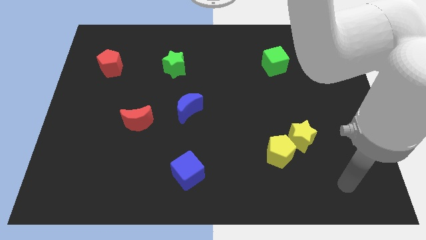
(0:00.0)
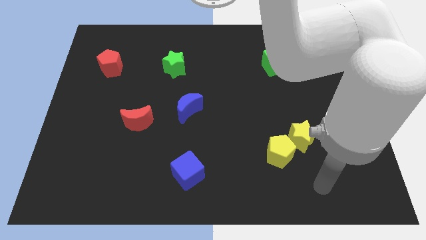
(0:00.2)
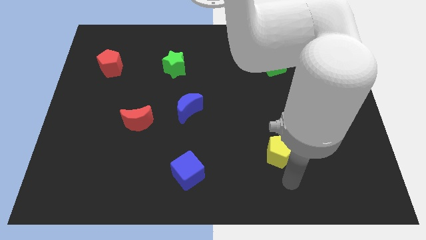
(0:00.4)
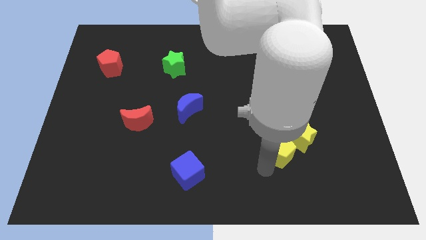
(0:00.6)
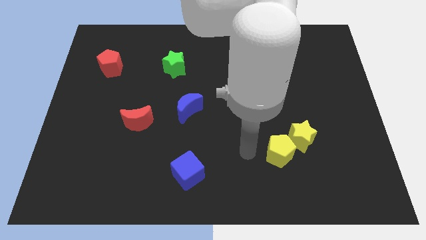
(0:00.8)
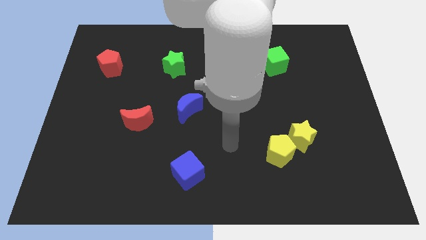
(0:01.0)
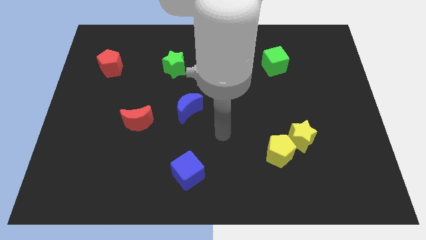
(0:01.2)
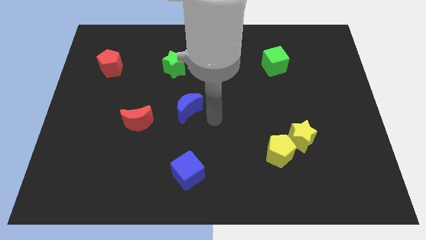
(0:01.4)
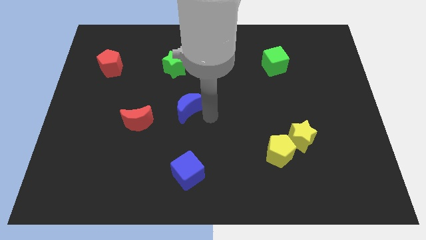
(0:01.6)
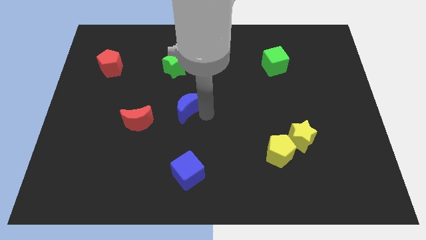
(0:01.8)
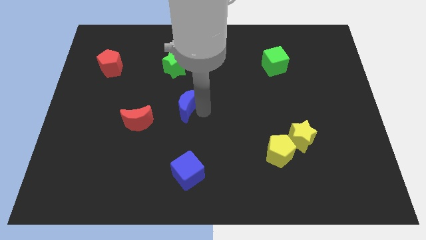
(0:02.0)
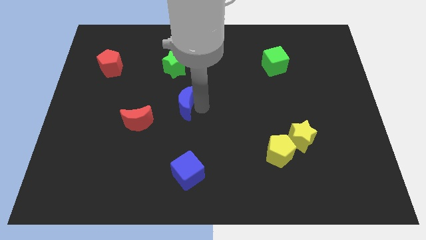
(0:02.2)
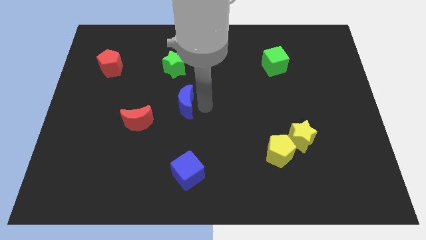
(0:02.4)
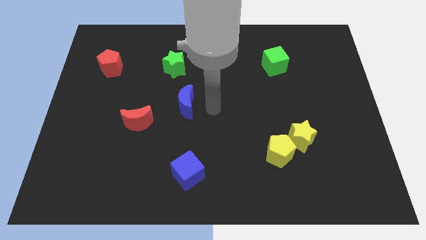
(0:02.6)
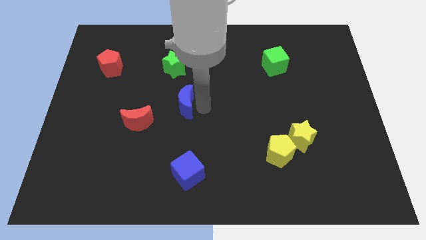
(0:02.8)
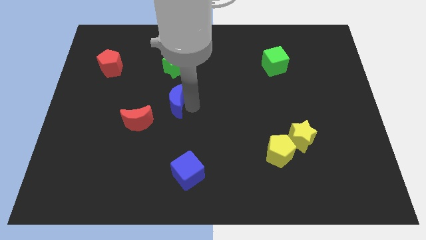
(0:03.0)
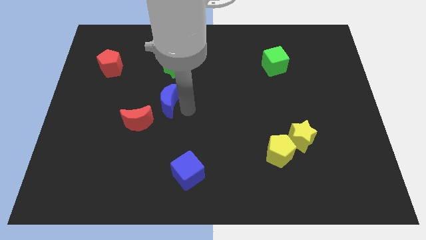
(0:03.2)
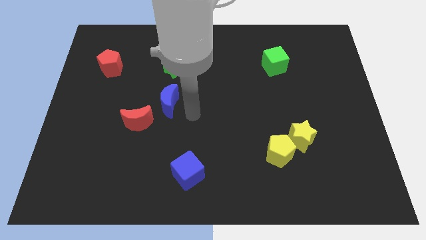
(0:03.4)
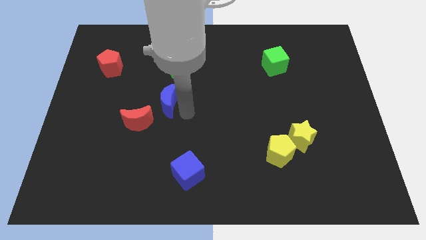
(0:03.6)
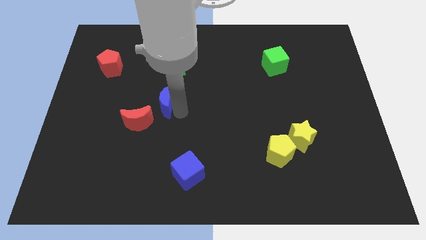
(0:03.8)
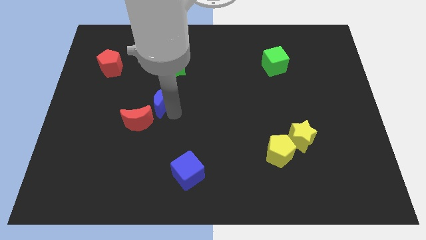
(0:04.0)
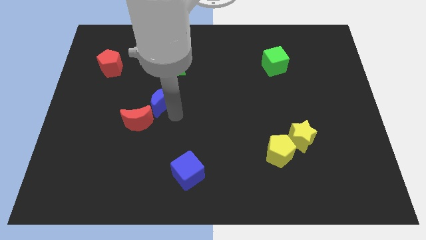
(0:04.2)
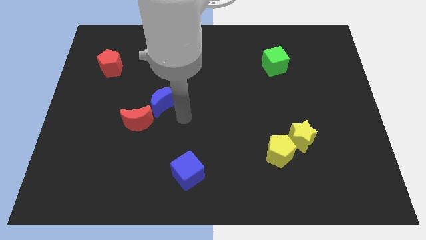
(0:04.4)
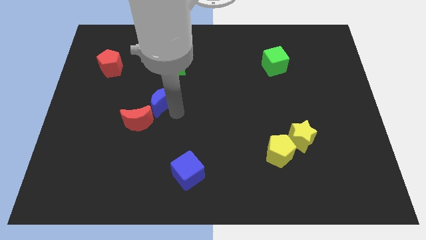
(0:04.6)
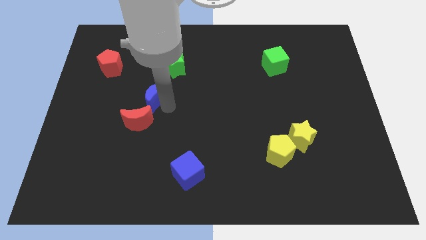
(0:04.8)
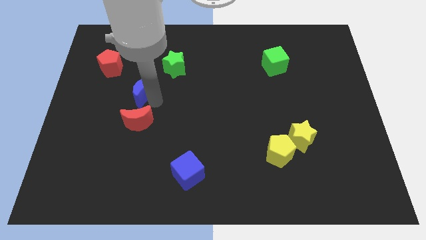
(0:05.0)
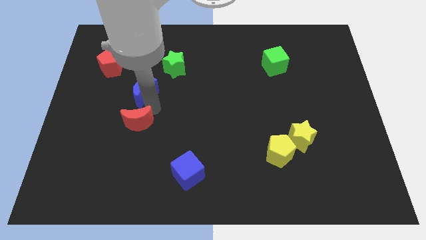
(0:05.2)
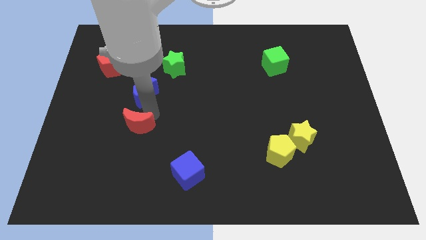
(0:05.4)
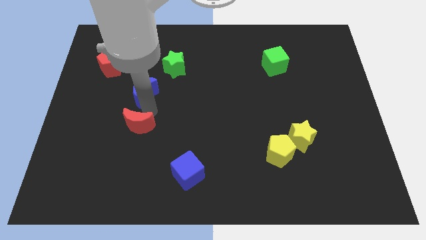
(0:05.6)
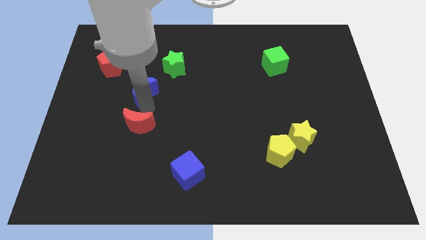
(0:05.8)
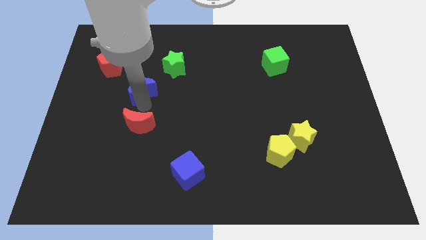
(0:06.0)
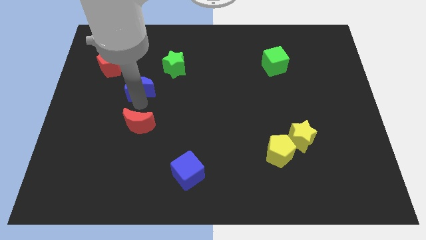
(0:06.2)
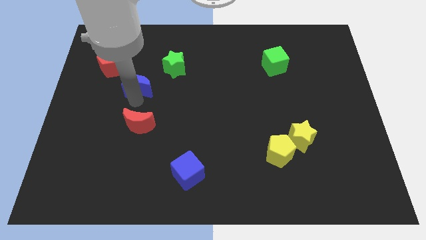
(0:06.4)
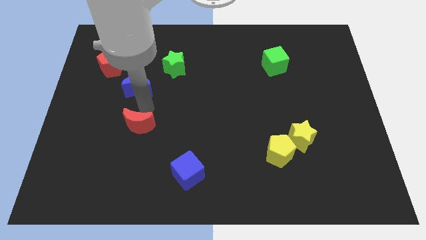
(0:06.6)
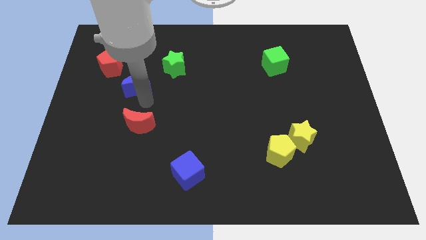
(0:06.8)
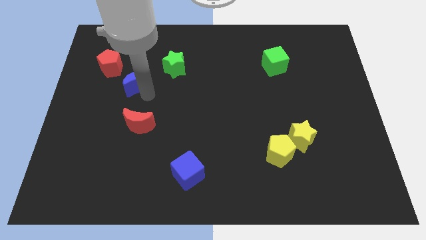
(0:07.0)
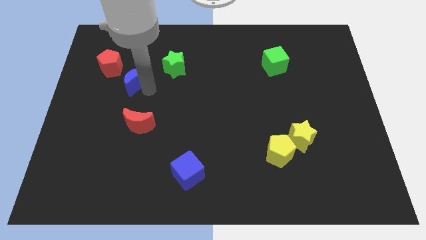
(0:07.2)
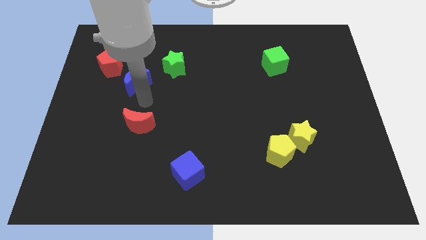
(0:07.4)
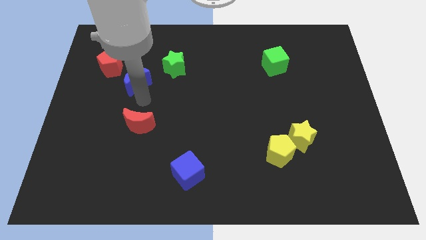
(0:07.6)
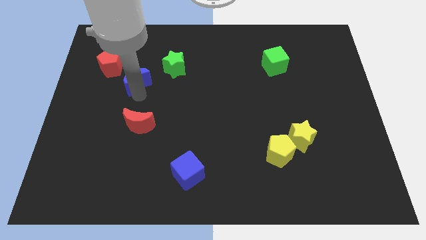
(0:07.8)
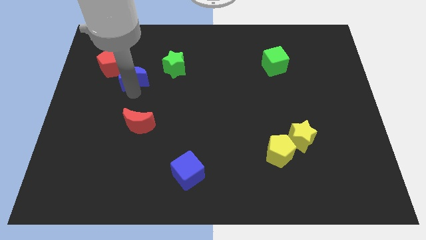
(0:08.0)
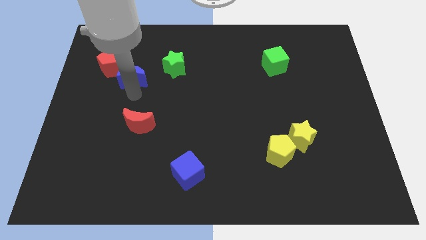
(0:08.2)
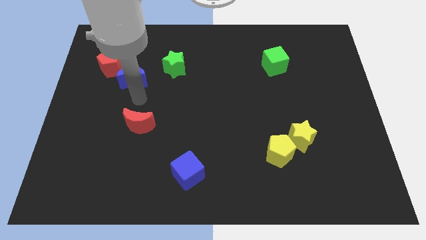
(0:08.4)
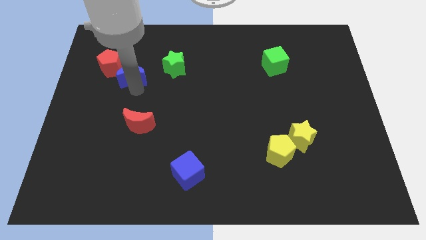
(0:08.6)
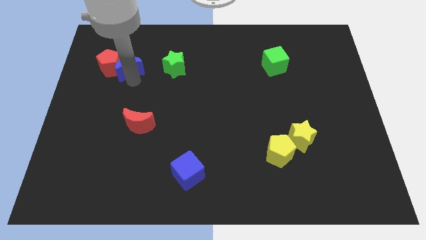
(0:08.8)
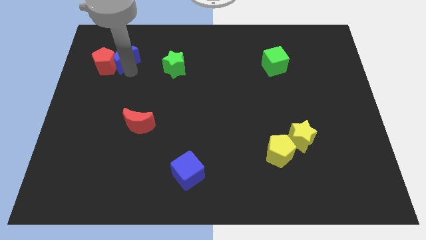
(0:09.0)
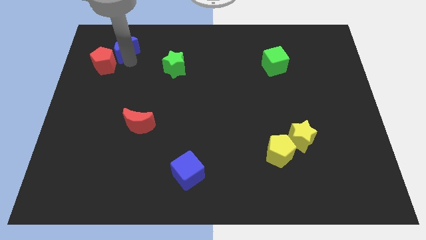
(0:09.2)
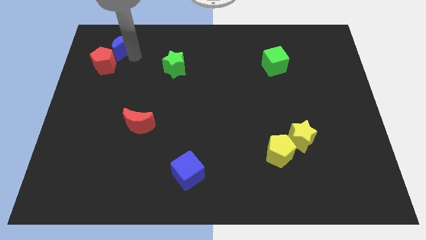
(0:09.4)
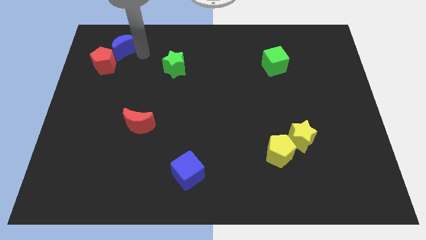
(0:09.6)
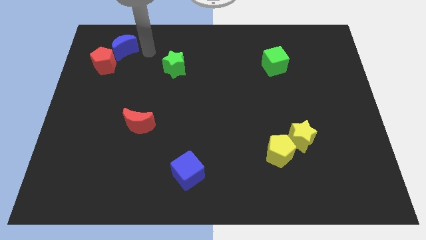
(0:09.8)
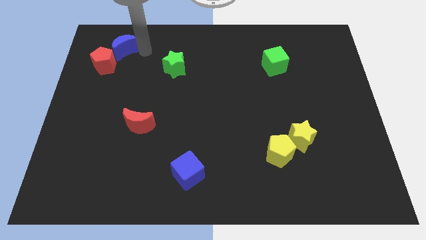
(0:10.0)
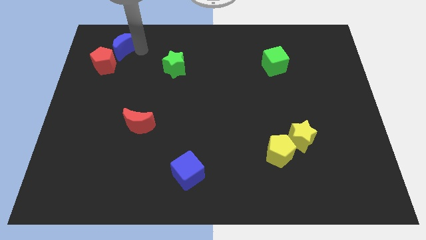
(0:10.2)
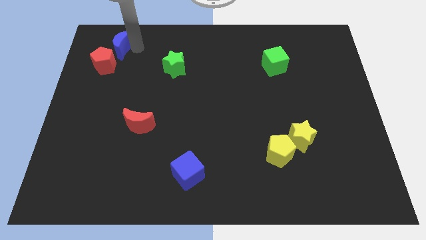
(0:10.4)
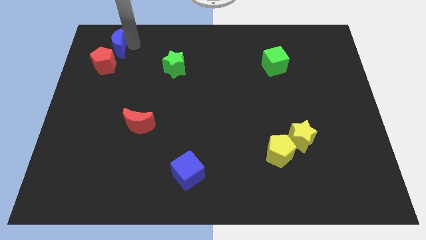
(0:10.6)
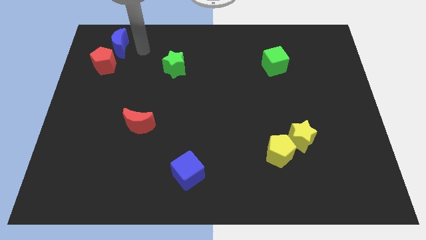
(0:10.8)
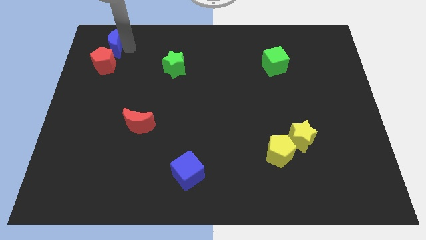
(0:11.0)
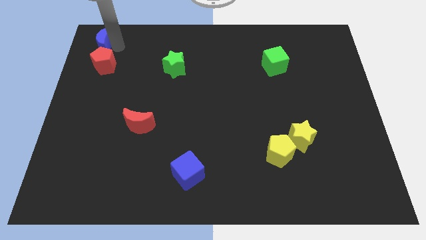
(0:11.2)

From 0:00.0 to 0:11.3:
push the blue moon to the top left corner

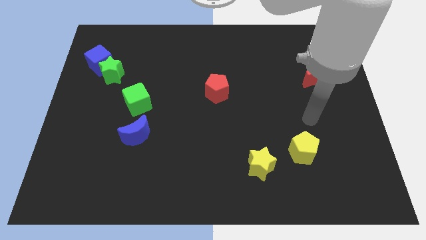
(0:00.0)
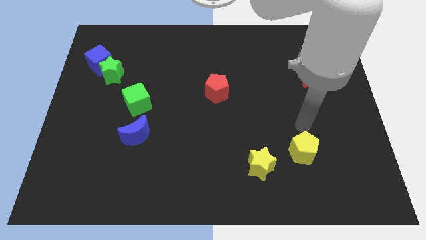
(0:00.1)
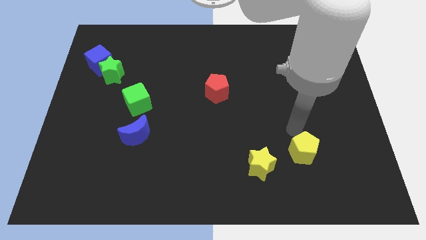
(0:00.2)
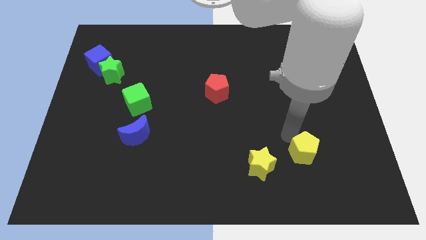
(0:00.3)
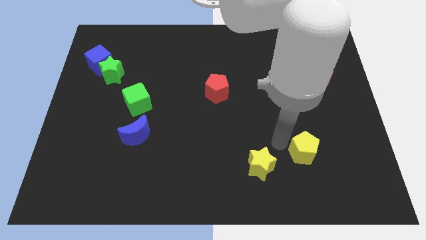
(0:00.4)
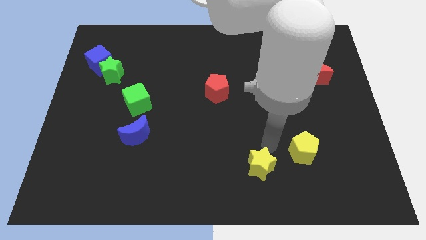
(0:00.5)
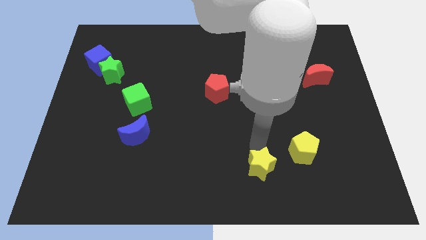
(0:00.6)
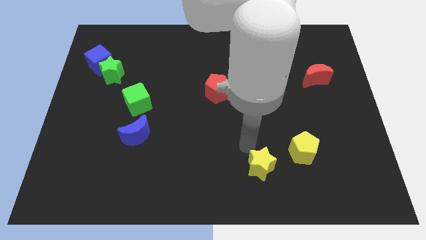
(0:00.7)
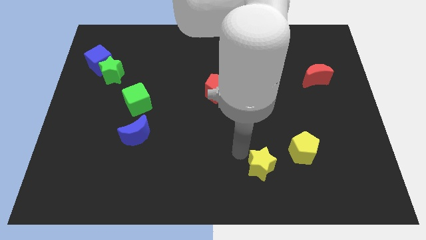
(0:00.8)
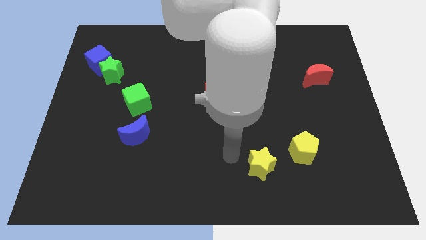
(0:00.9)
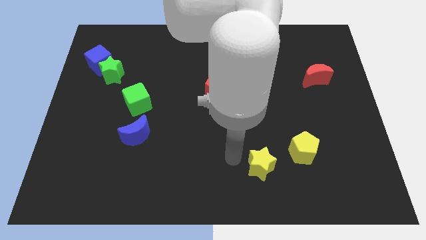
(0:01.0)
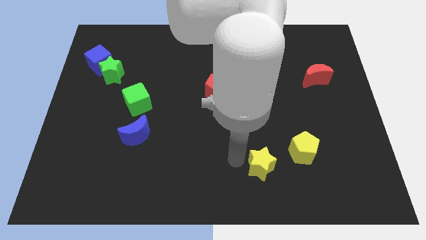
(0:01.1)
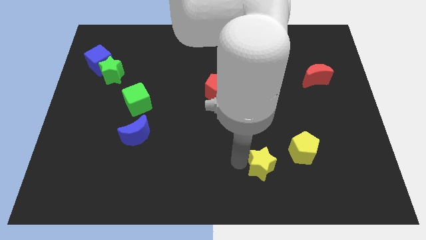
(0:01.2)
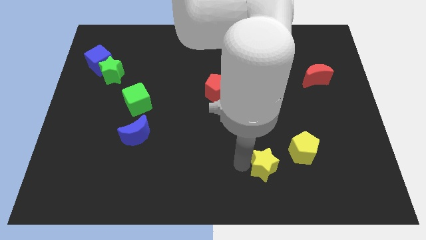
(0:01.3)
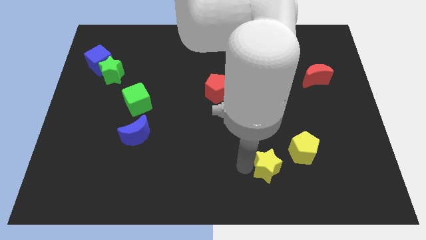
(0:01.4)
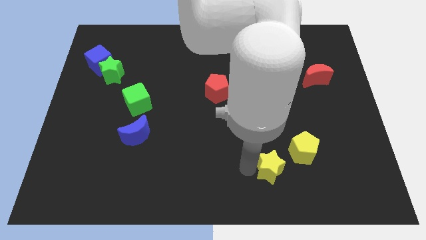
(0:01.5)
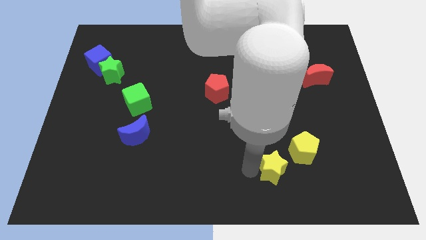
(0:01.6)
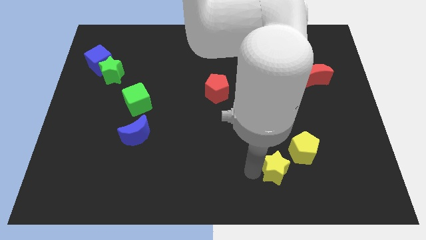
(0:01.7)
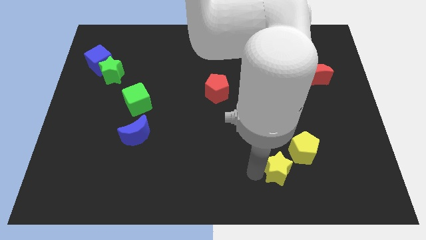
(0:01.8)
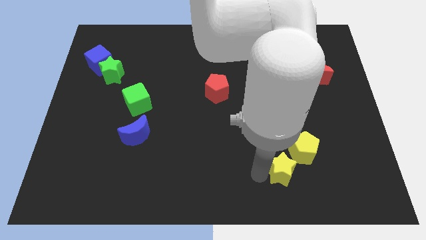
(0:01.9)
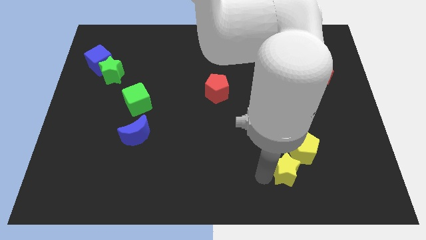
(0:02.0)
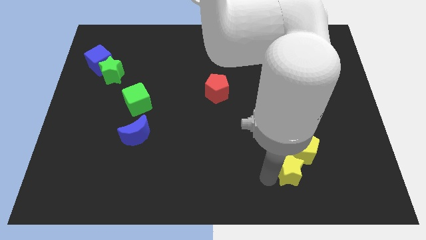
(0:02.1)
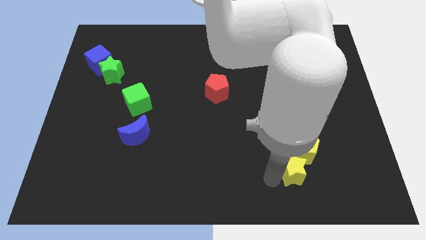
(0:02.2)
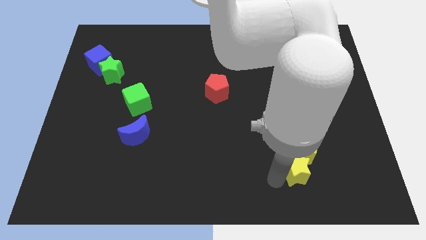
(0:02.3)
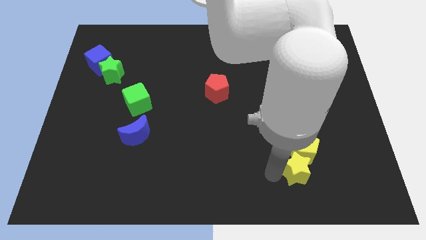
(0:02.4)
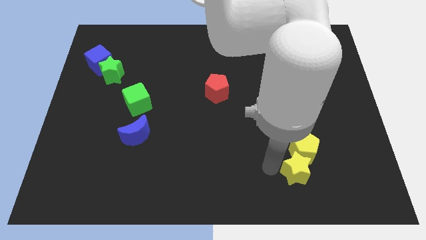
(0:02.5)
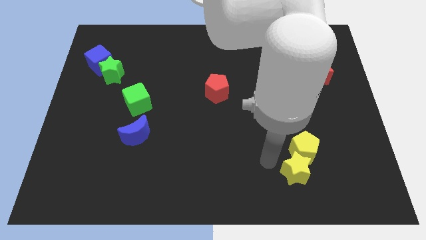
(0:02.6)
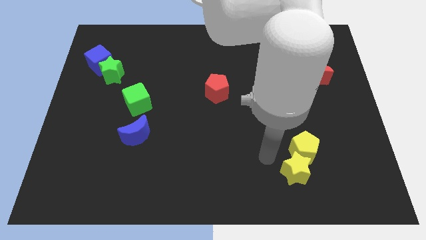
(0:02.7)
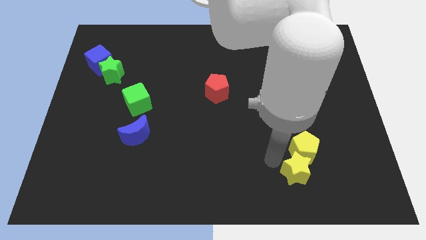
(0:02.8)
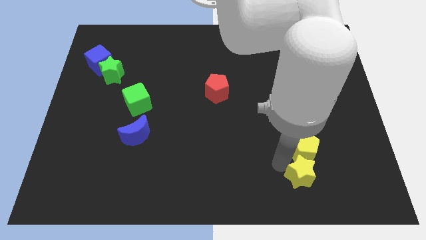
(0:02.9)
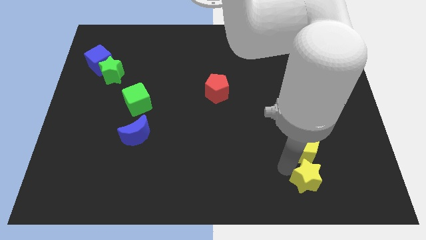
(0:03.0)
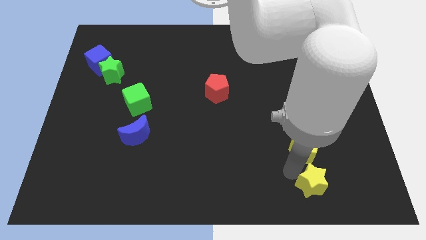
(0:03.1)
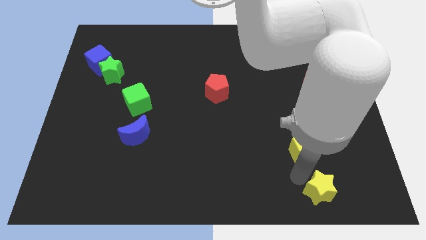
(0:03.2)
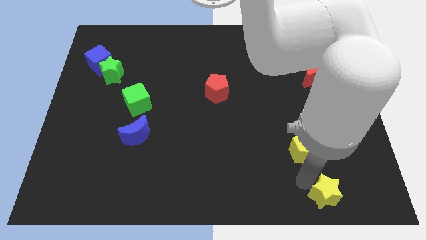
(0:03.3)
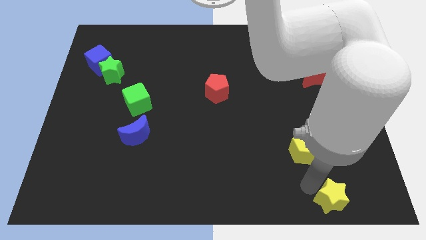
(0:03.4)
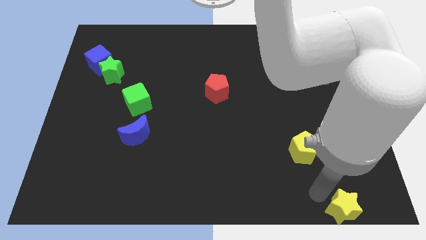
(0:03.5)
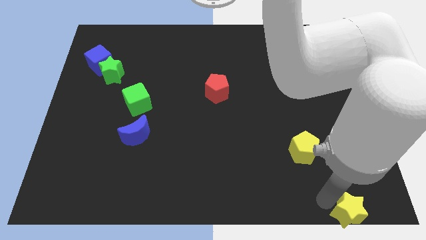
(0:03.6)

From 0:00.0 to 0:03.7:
push the yellow star to the bottom right of the board
